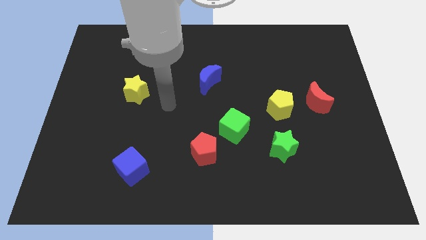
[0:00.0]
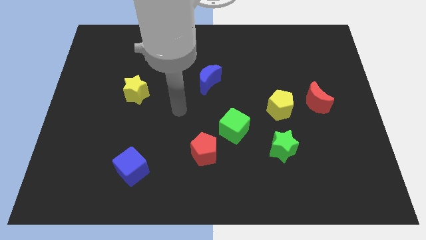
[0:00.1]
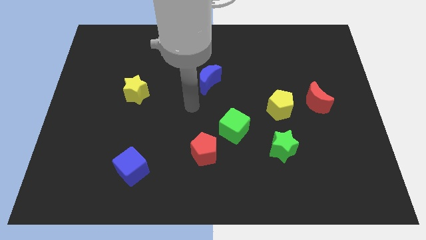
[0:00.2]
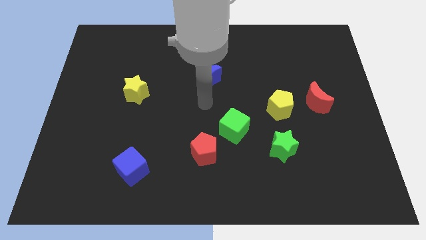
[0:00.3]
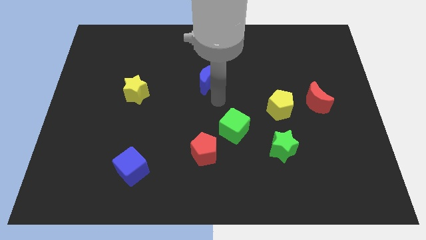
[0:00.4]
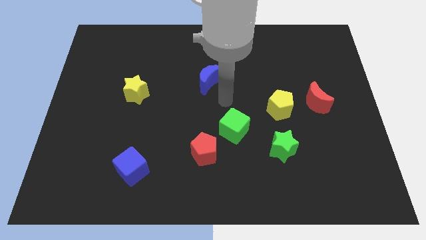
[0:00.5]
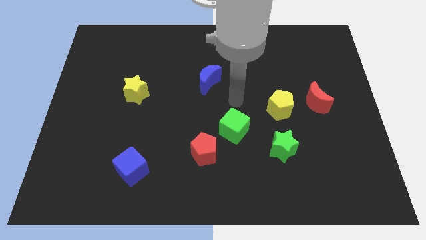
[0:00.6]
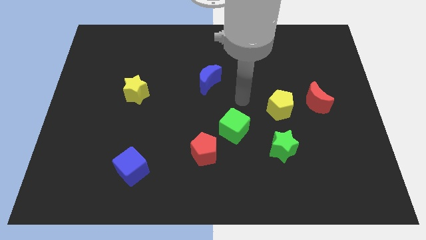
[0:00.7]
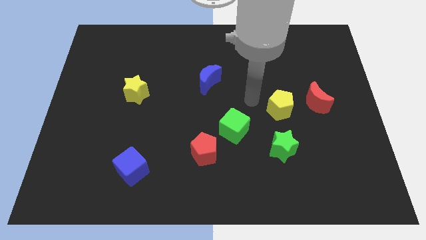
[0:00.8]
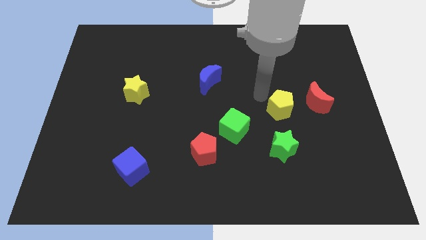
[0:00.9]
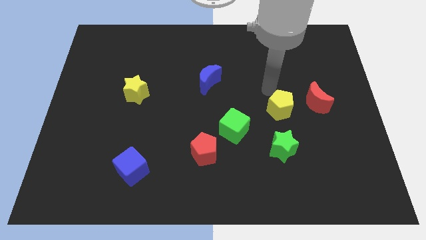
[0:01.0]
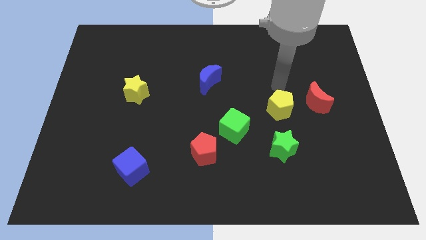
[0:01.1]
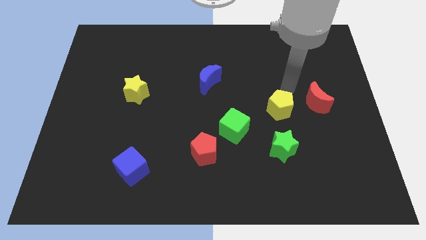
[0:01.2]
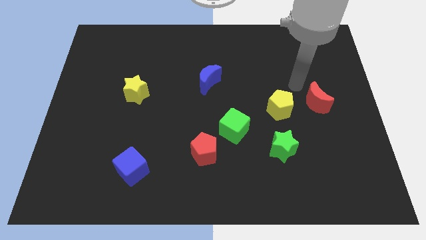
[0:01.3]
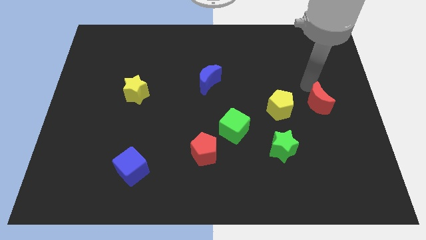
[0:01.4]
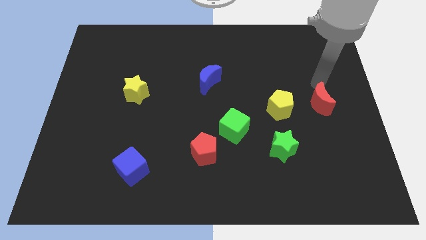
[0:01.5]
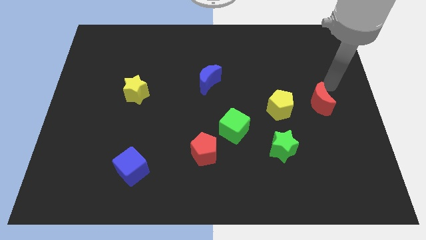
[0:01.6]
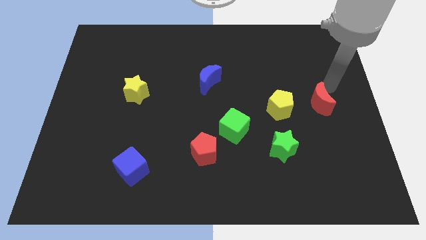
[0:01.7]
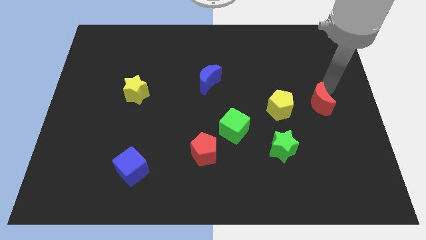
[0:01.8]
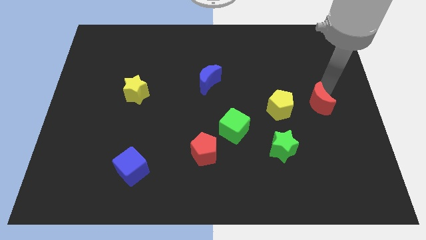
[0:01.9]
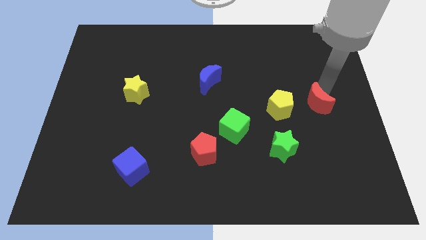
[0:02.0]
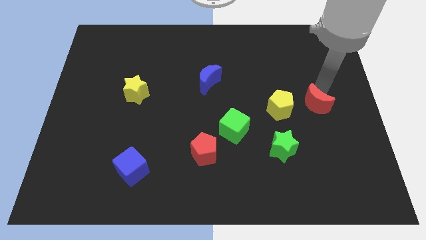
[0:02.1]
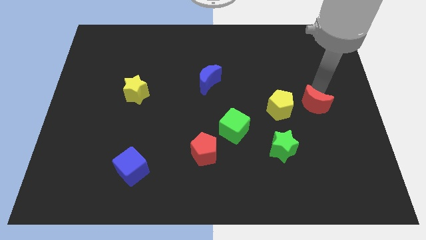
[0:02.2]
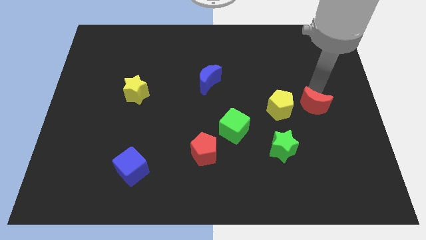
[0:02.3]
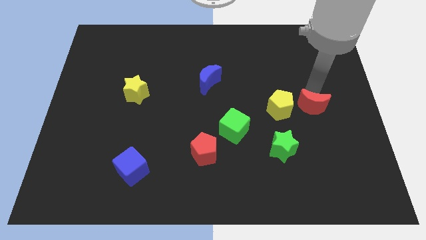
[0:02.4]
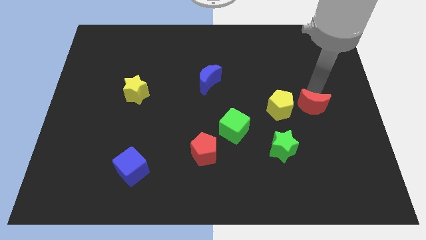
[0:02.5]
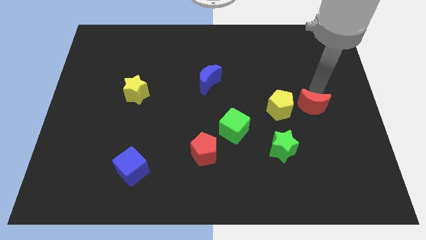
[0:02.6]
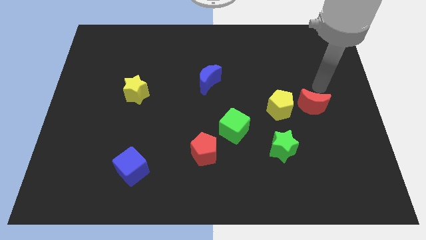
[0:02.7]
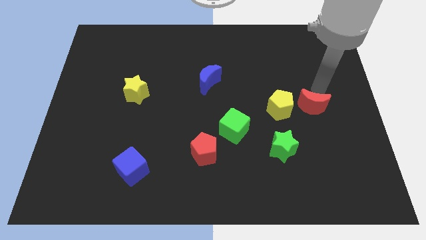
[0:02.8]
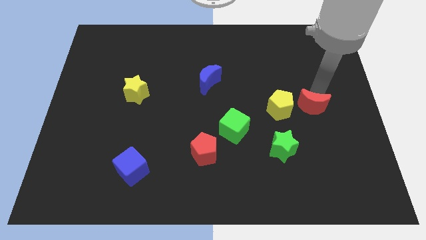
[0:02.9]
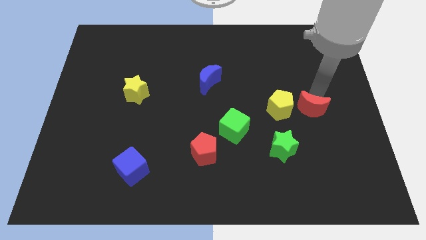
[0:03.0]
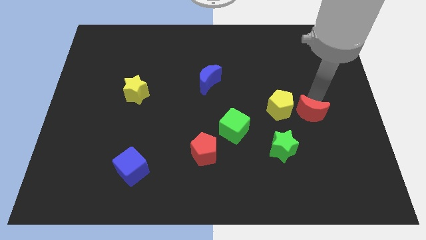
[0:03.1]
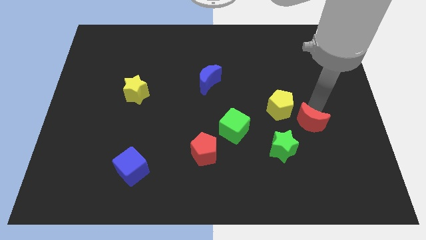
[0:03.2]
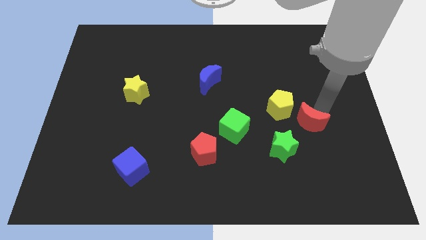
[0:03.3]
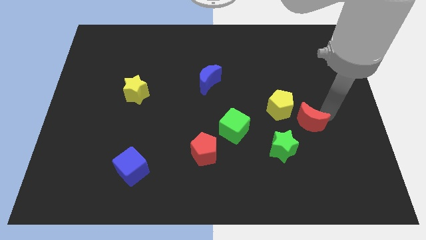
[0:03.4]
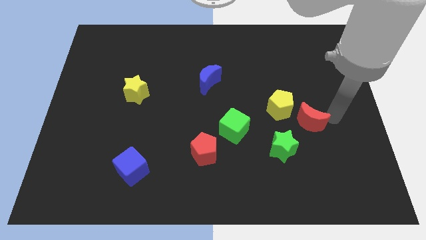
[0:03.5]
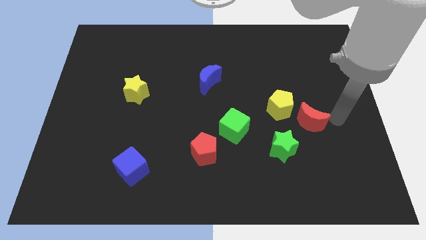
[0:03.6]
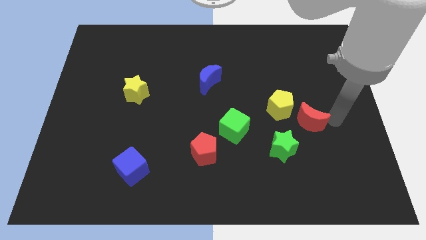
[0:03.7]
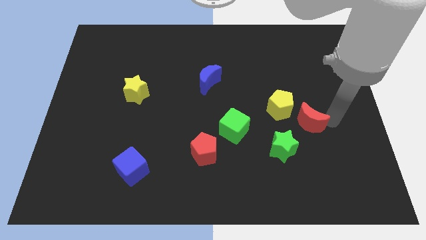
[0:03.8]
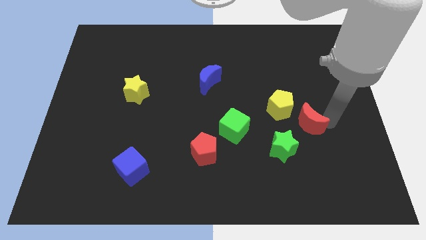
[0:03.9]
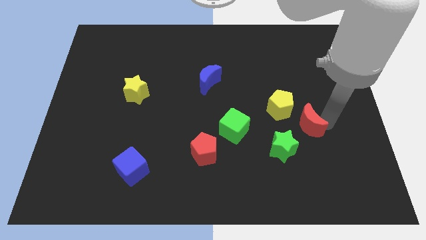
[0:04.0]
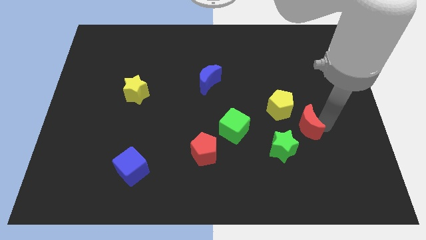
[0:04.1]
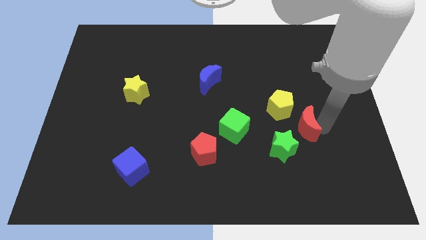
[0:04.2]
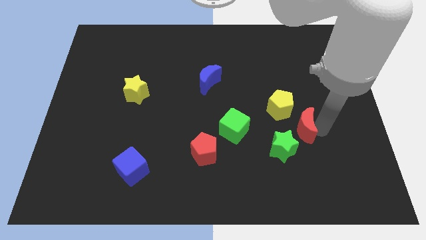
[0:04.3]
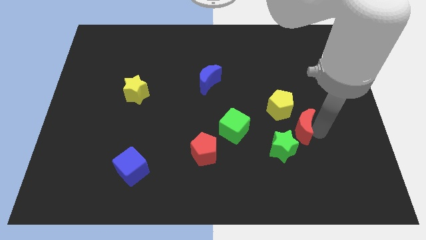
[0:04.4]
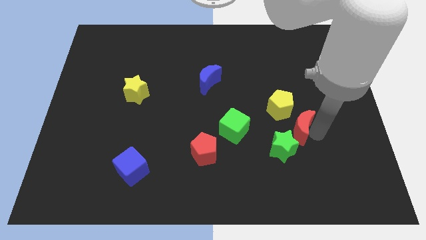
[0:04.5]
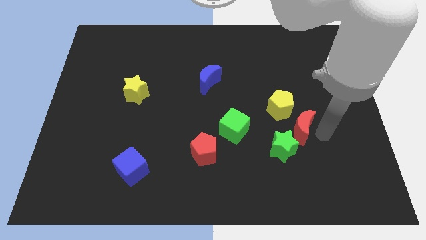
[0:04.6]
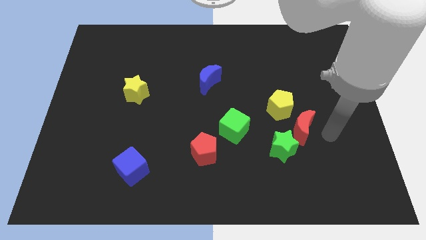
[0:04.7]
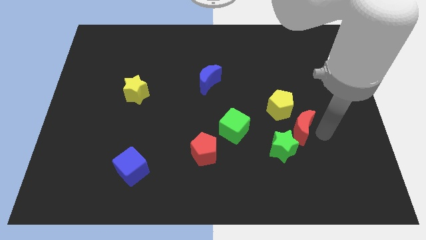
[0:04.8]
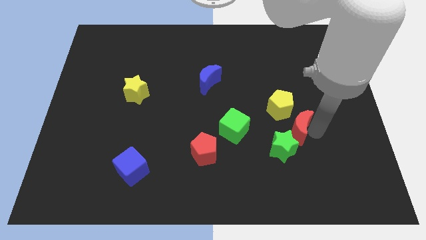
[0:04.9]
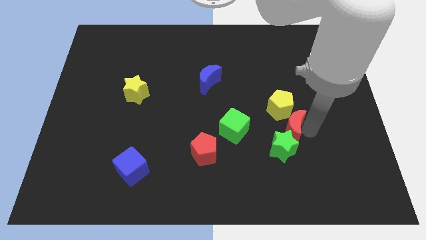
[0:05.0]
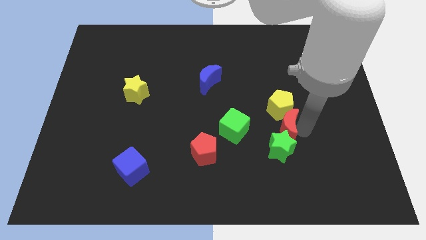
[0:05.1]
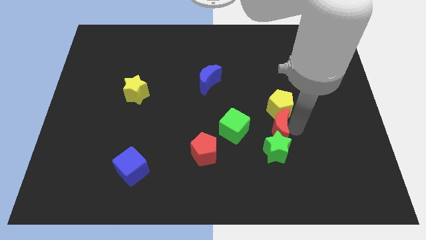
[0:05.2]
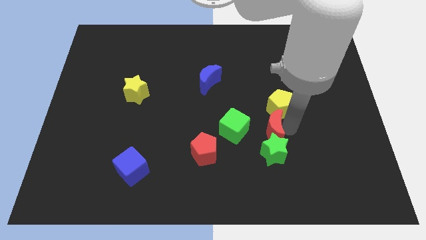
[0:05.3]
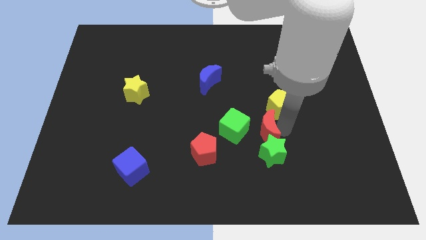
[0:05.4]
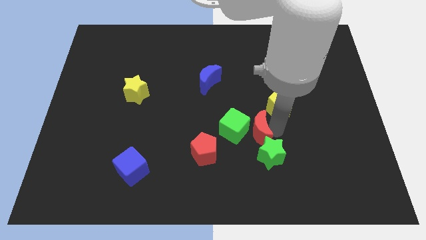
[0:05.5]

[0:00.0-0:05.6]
put the red moon close to the green cube
